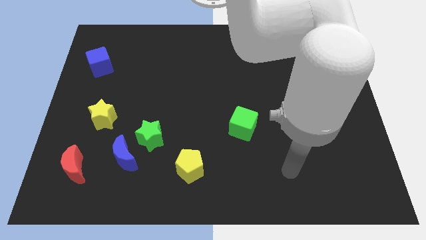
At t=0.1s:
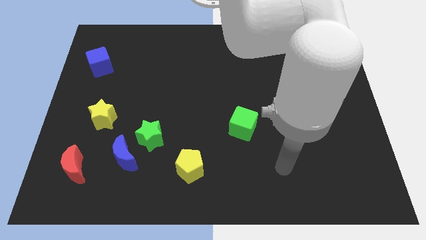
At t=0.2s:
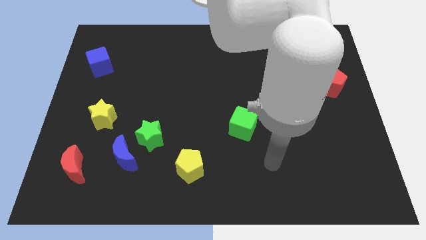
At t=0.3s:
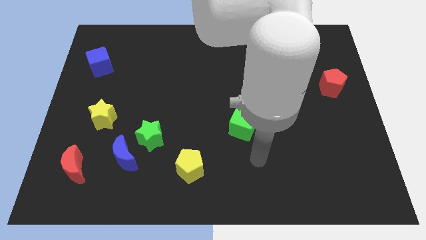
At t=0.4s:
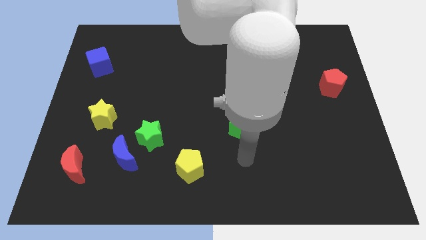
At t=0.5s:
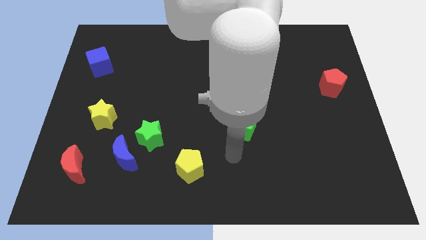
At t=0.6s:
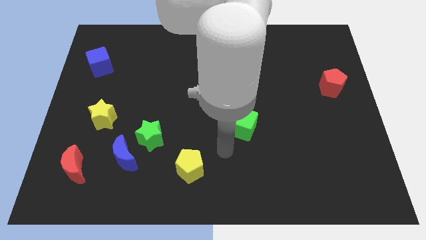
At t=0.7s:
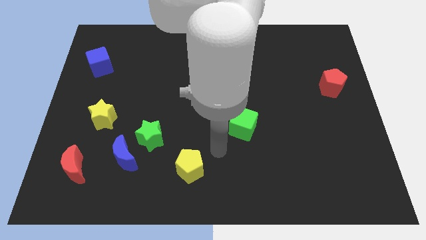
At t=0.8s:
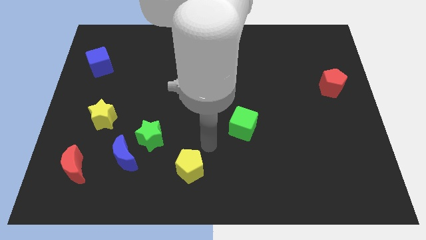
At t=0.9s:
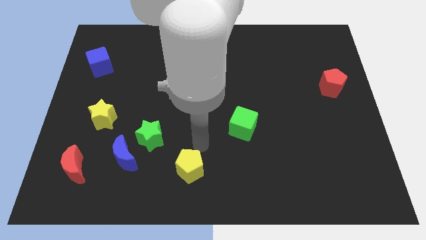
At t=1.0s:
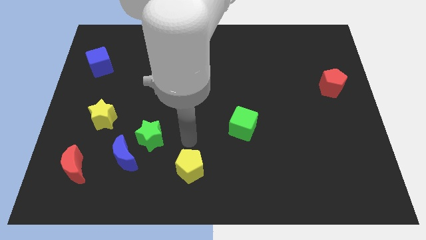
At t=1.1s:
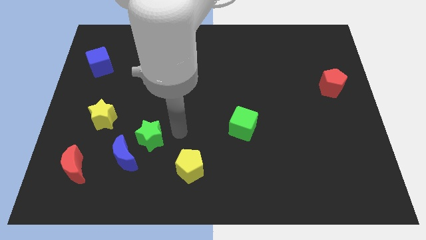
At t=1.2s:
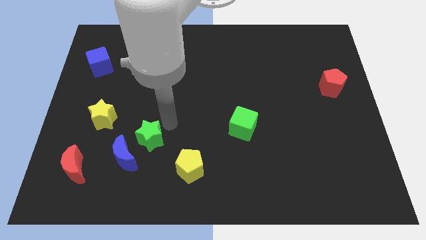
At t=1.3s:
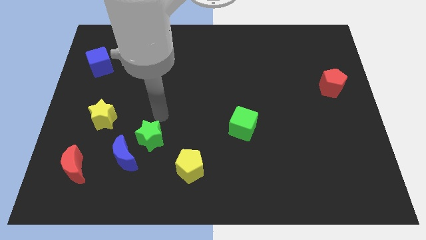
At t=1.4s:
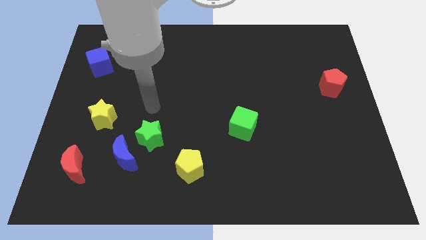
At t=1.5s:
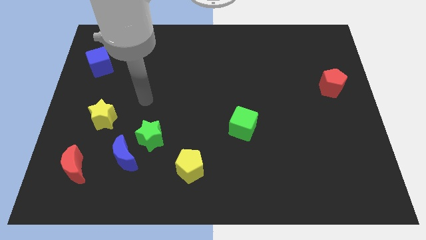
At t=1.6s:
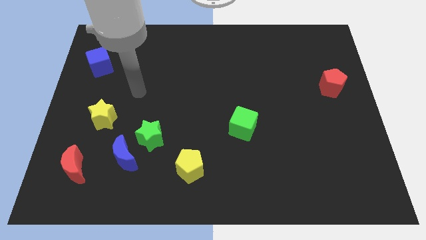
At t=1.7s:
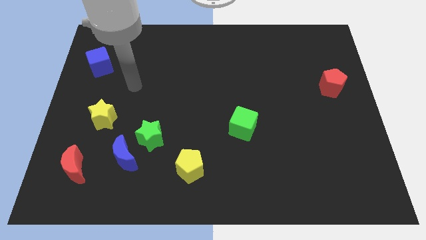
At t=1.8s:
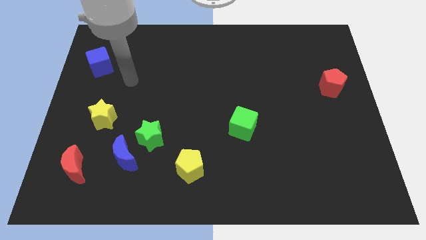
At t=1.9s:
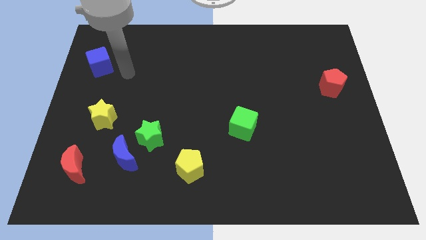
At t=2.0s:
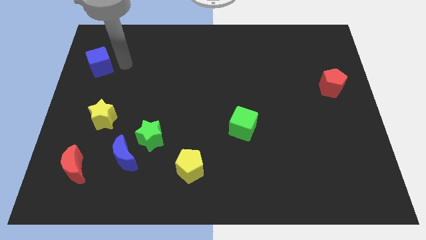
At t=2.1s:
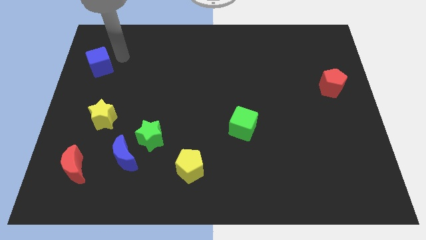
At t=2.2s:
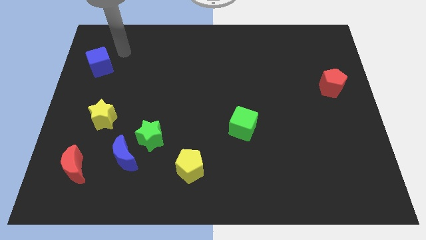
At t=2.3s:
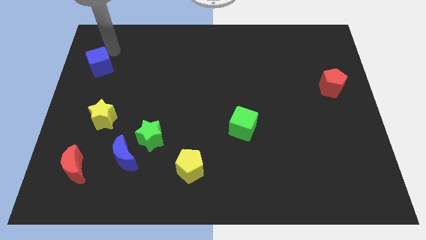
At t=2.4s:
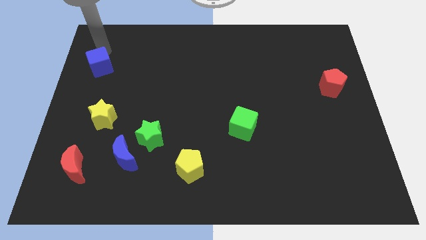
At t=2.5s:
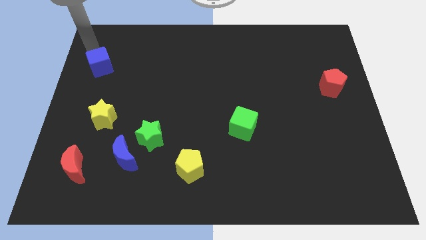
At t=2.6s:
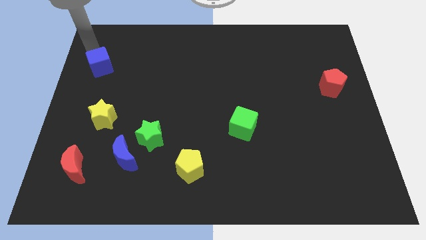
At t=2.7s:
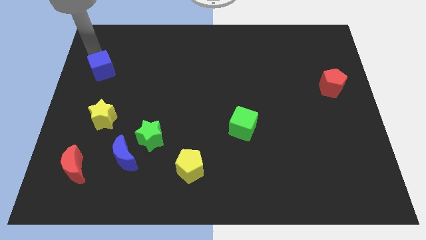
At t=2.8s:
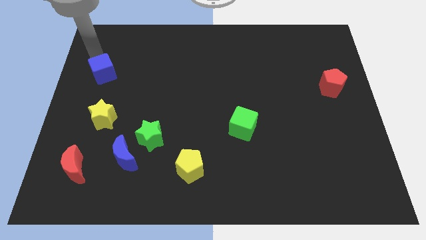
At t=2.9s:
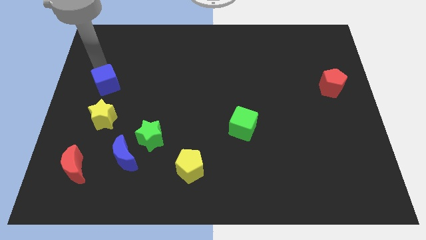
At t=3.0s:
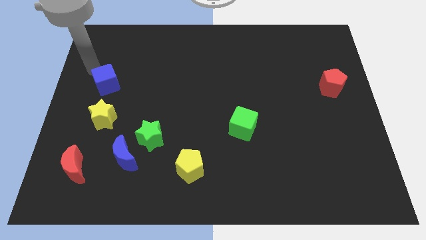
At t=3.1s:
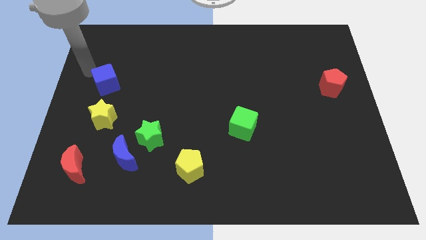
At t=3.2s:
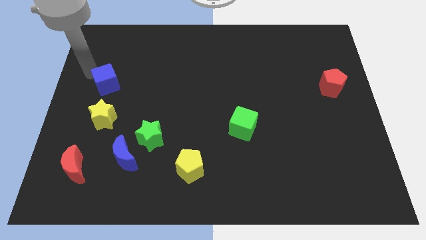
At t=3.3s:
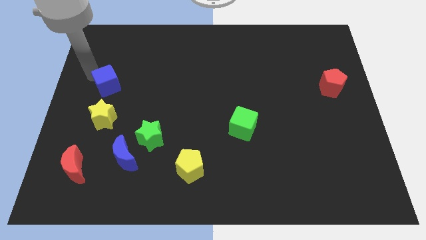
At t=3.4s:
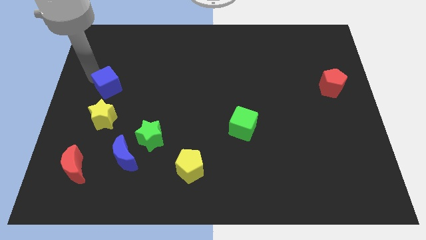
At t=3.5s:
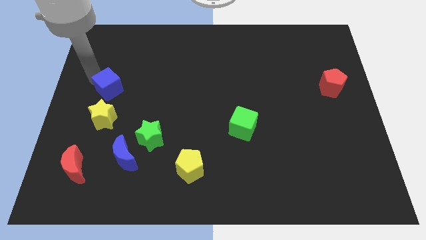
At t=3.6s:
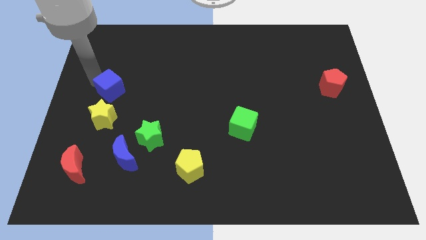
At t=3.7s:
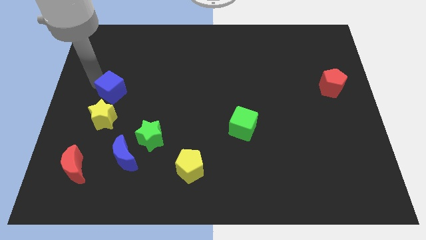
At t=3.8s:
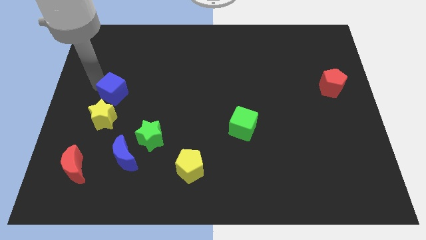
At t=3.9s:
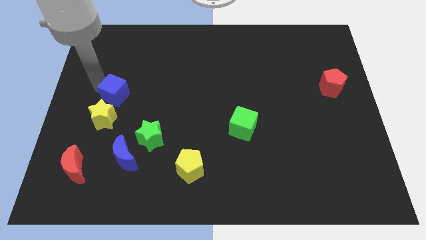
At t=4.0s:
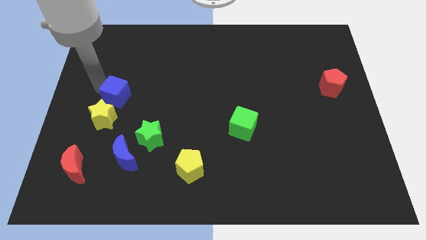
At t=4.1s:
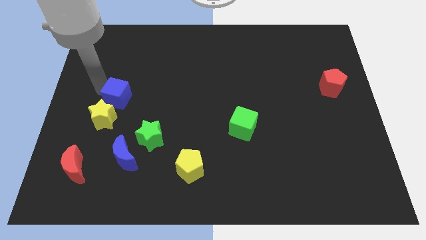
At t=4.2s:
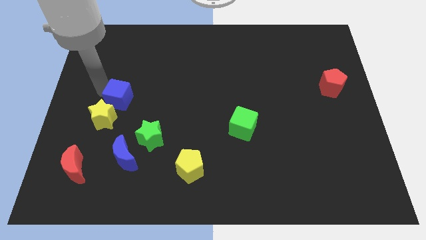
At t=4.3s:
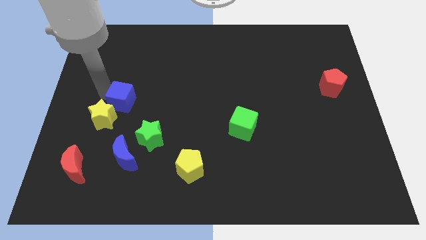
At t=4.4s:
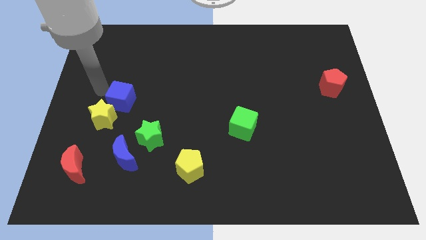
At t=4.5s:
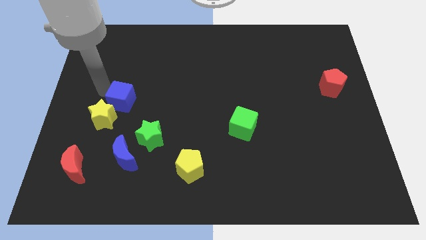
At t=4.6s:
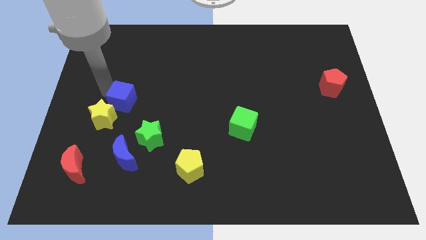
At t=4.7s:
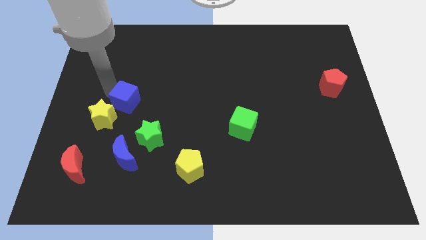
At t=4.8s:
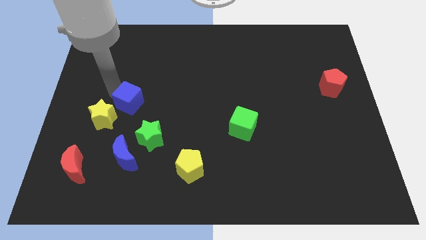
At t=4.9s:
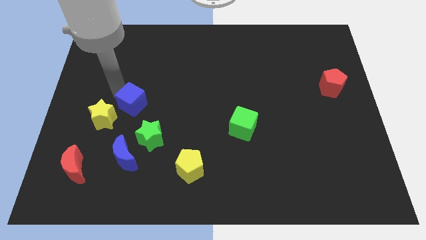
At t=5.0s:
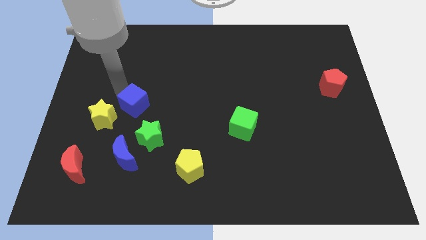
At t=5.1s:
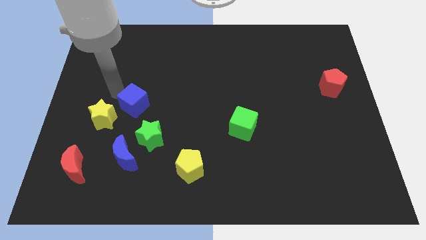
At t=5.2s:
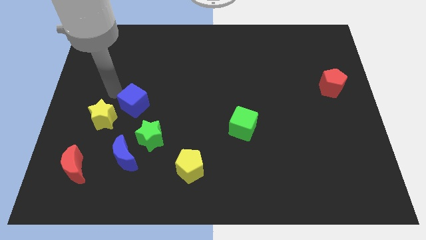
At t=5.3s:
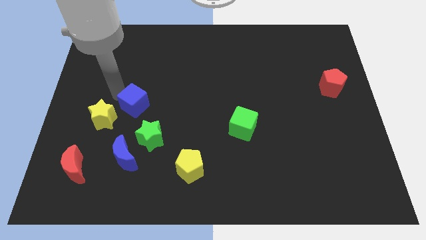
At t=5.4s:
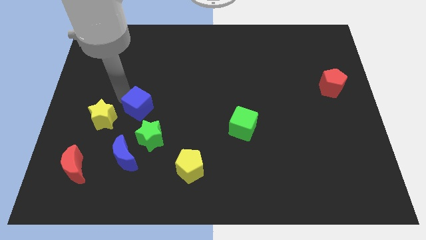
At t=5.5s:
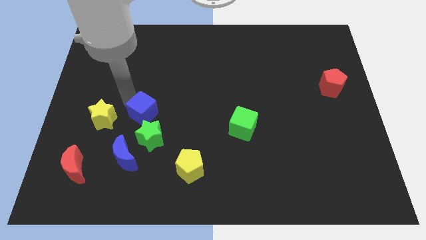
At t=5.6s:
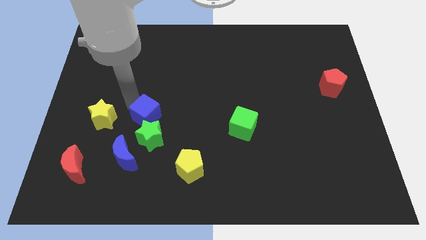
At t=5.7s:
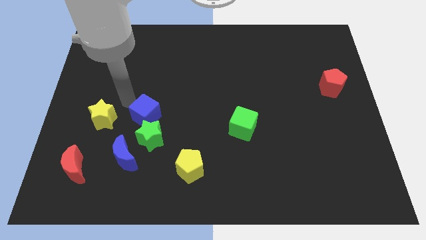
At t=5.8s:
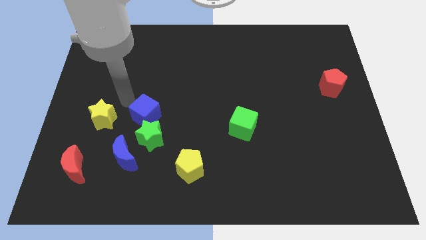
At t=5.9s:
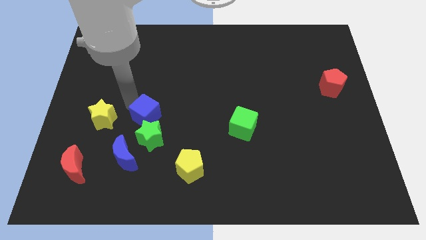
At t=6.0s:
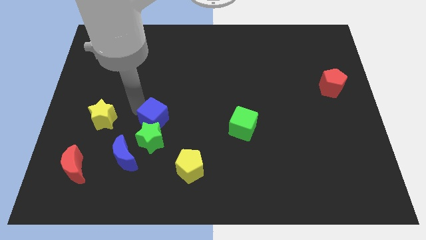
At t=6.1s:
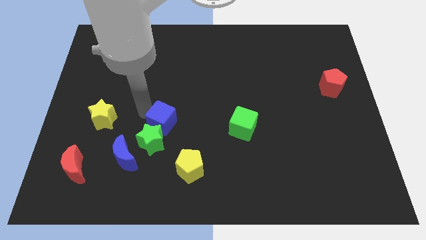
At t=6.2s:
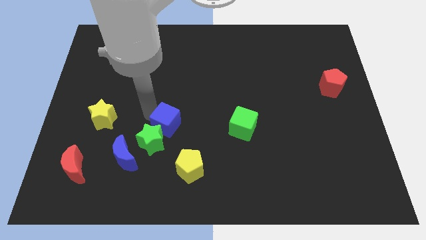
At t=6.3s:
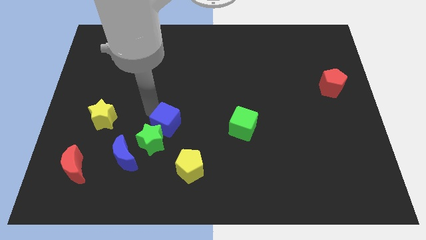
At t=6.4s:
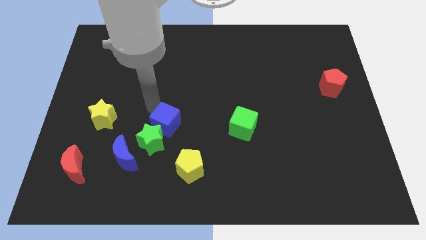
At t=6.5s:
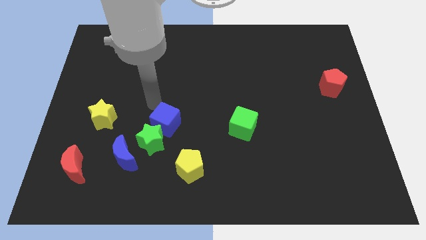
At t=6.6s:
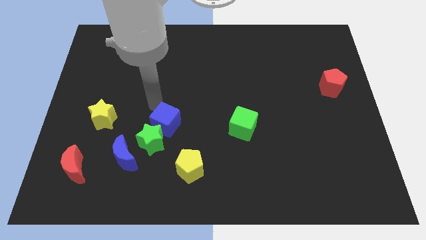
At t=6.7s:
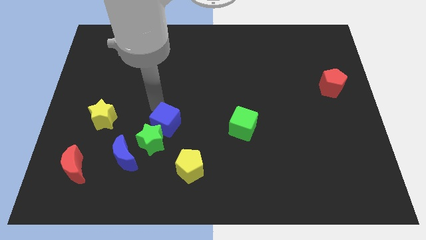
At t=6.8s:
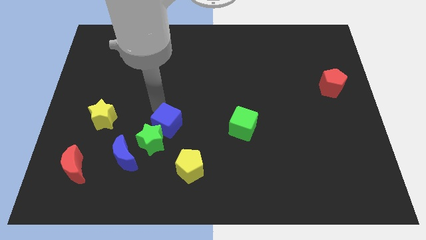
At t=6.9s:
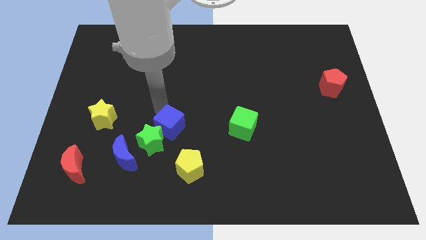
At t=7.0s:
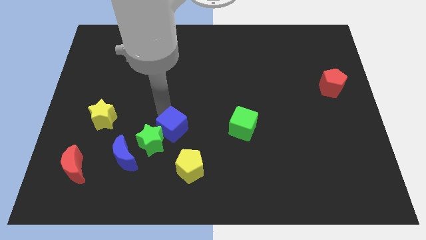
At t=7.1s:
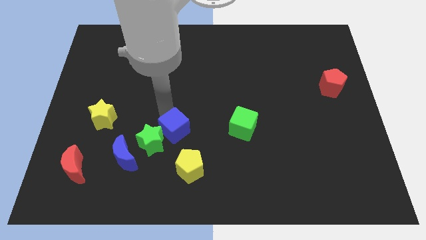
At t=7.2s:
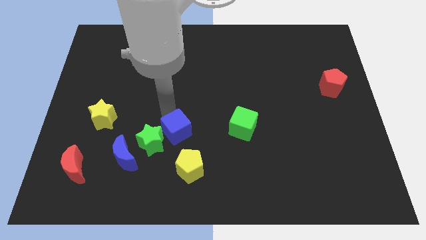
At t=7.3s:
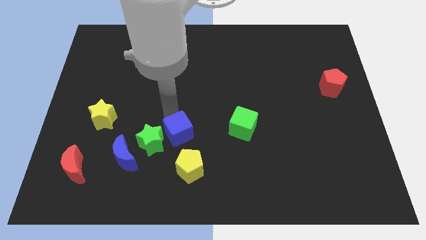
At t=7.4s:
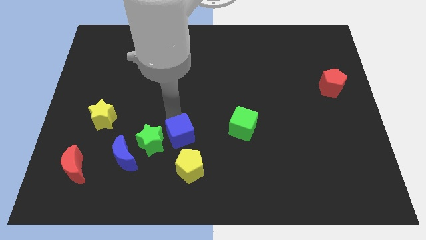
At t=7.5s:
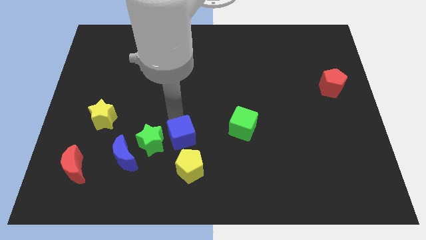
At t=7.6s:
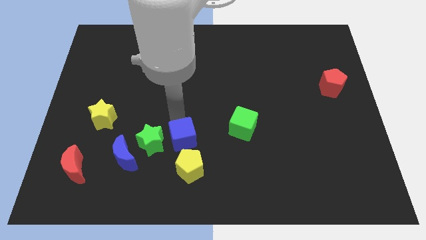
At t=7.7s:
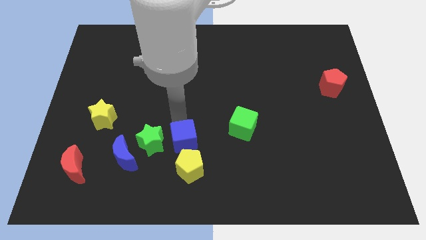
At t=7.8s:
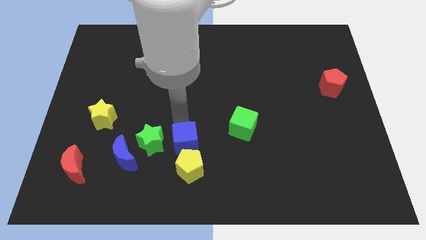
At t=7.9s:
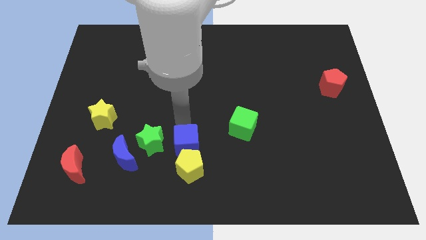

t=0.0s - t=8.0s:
push the blue cube next to the yellow pentagon
